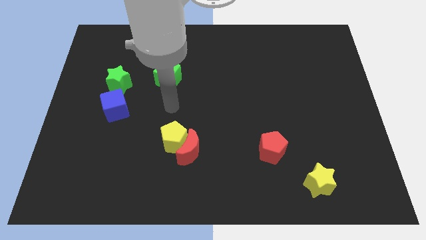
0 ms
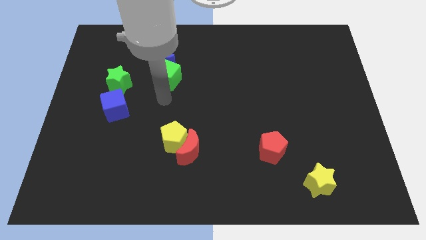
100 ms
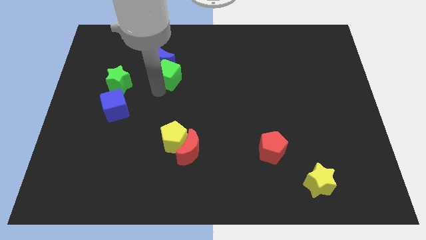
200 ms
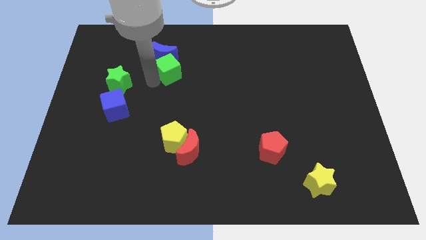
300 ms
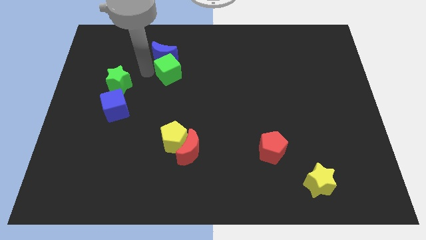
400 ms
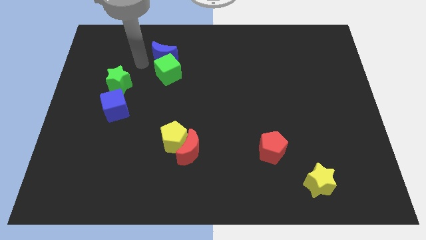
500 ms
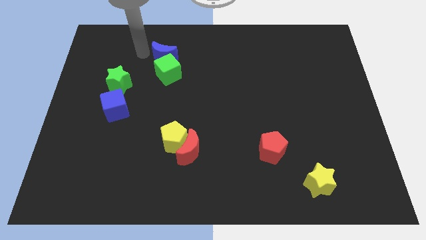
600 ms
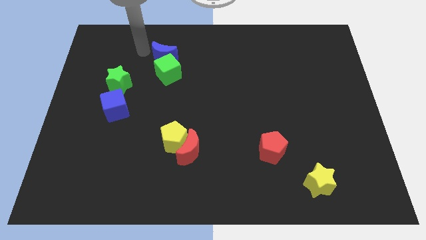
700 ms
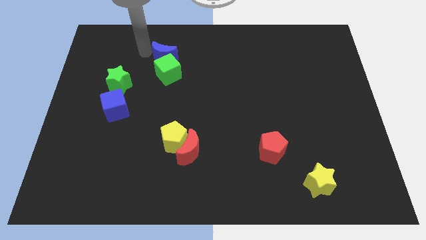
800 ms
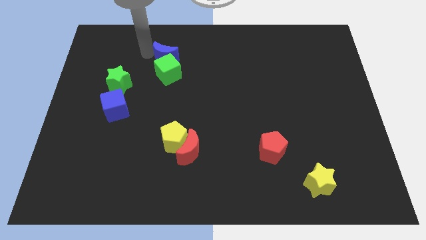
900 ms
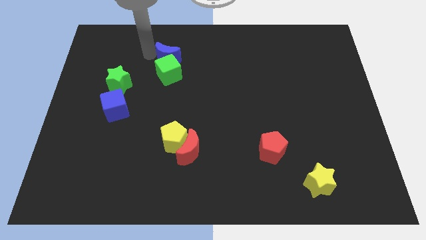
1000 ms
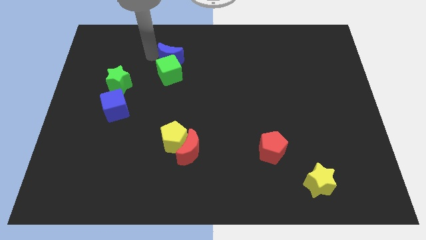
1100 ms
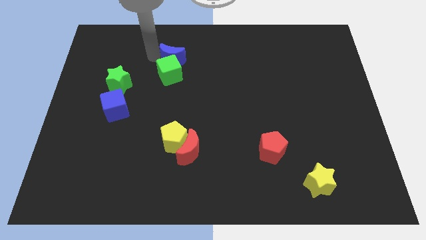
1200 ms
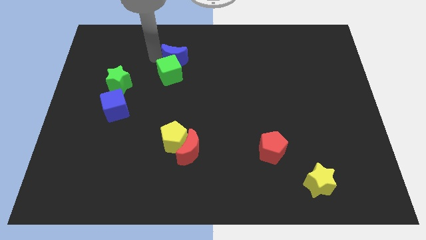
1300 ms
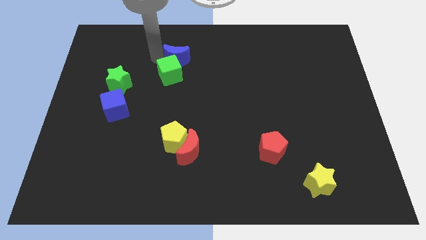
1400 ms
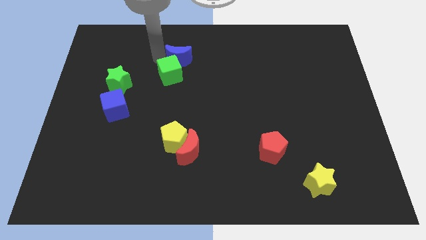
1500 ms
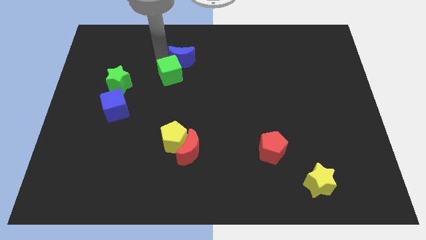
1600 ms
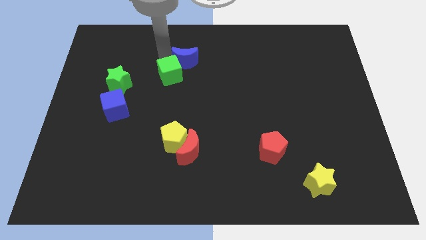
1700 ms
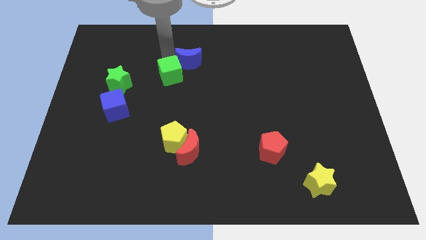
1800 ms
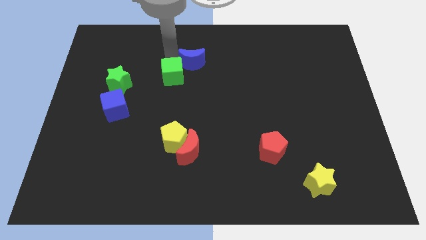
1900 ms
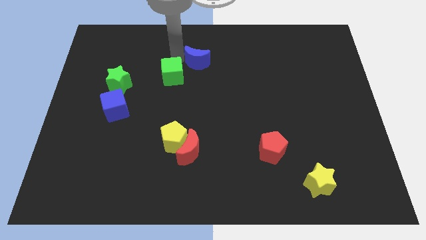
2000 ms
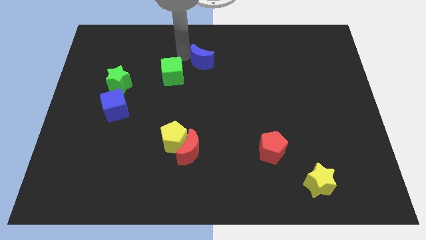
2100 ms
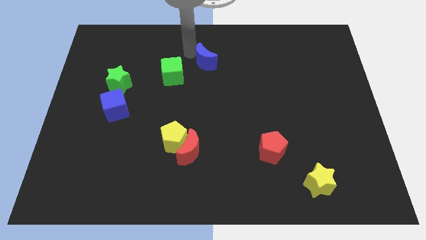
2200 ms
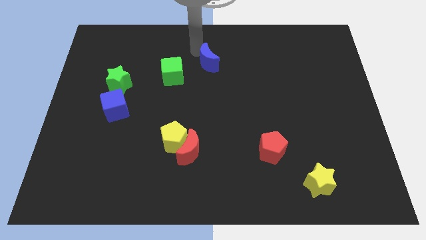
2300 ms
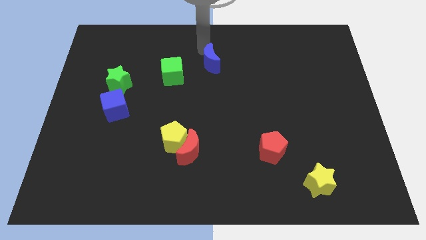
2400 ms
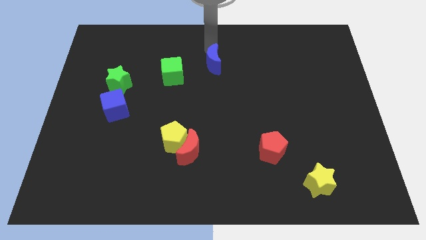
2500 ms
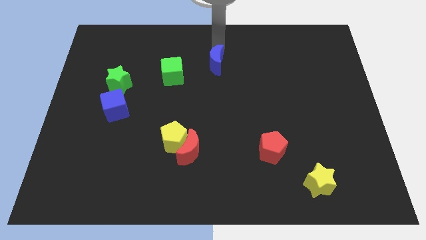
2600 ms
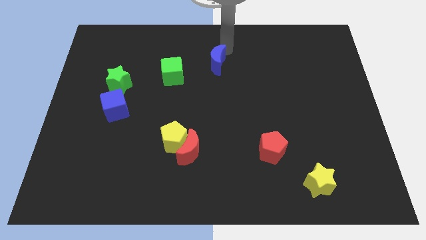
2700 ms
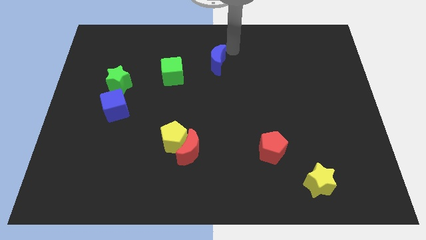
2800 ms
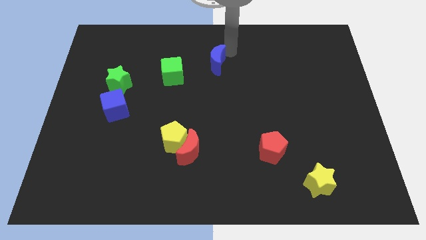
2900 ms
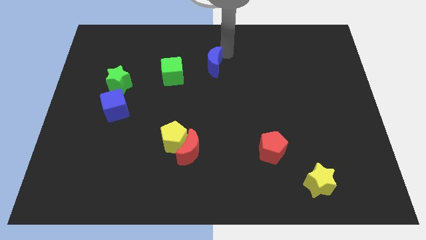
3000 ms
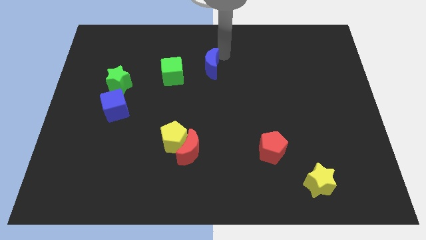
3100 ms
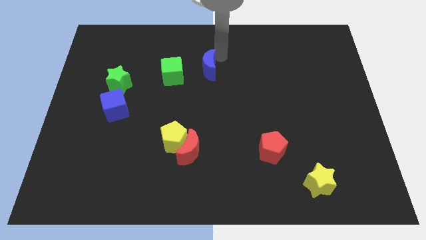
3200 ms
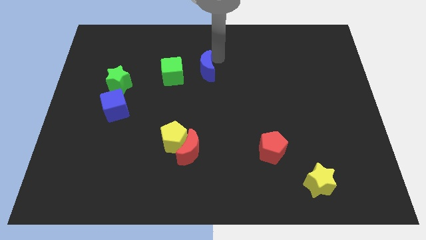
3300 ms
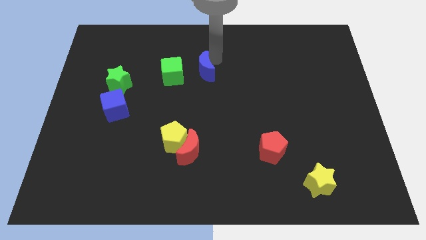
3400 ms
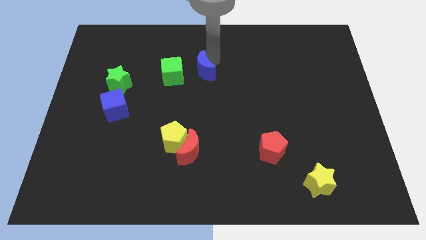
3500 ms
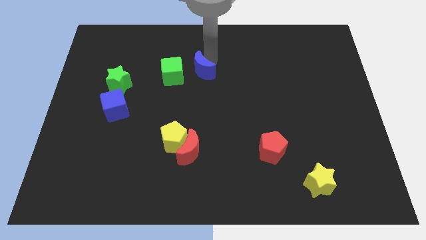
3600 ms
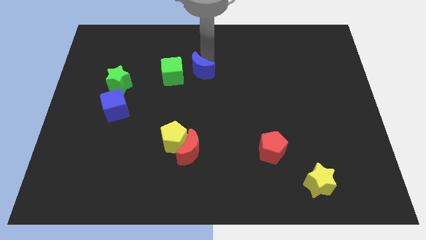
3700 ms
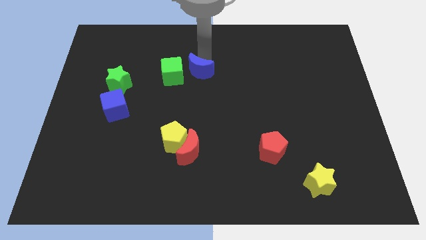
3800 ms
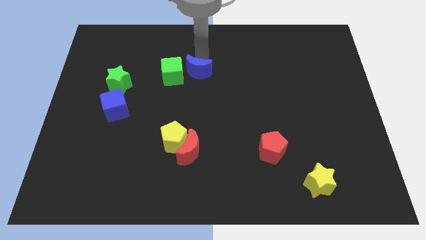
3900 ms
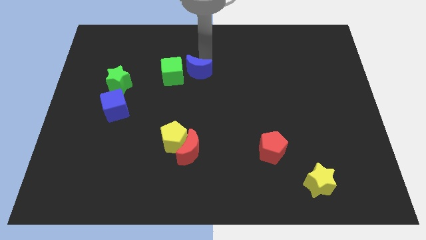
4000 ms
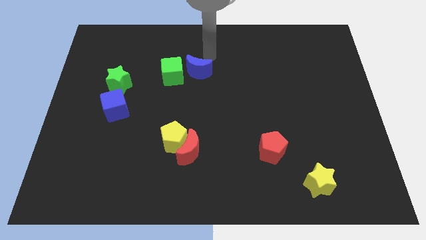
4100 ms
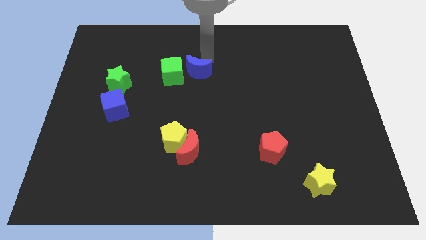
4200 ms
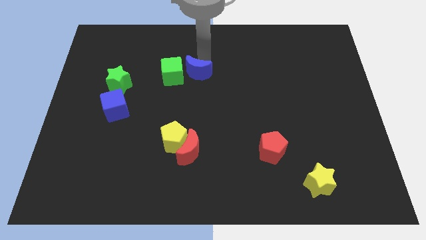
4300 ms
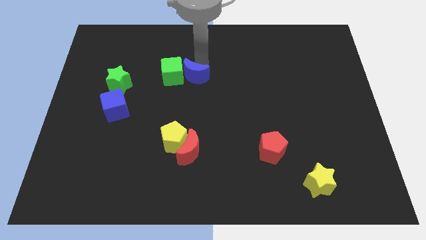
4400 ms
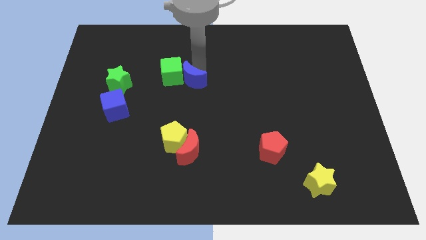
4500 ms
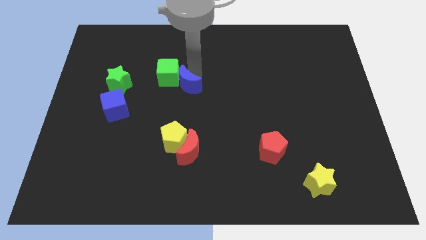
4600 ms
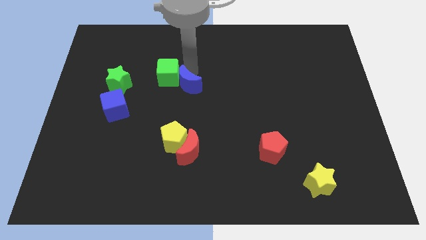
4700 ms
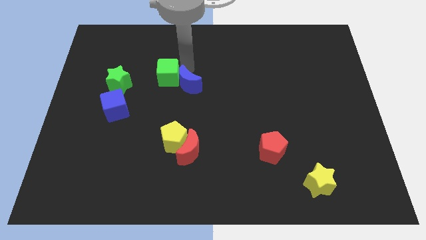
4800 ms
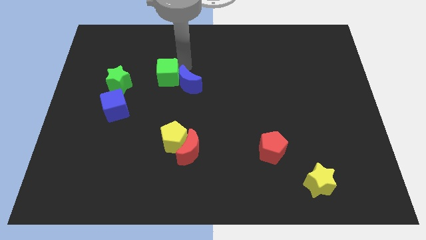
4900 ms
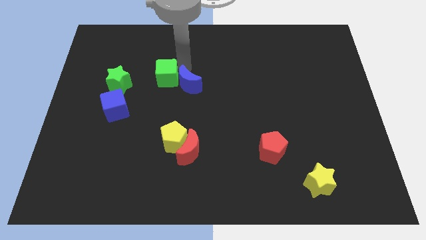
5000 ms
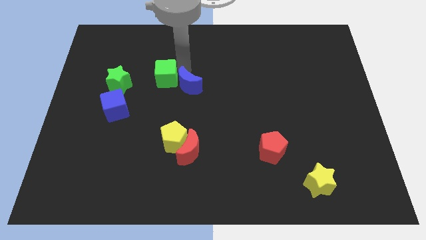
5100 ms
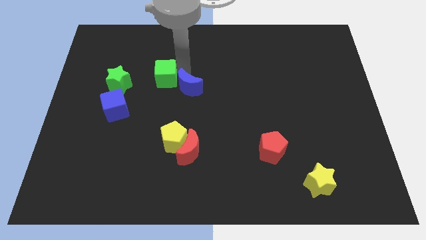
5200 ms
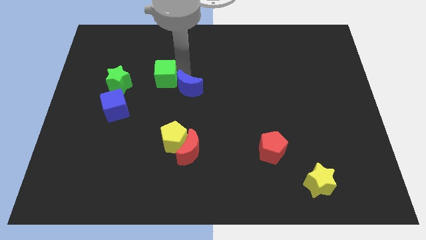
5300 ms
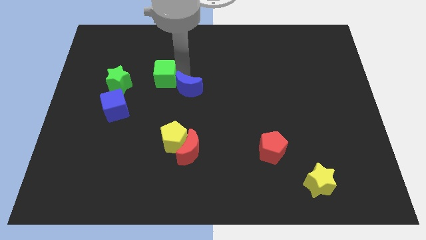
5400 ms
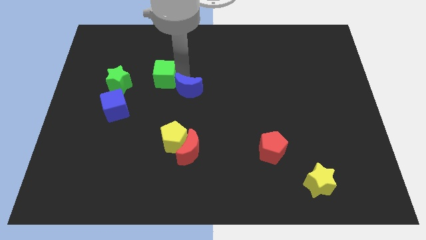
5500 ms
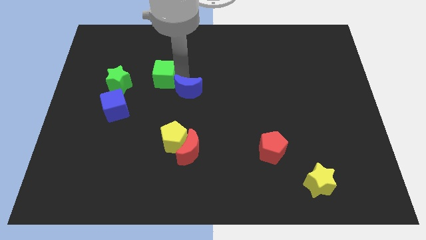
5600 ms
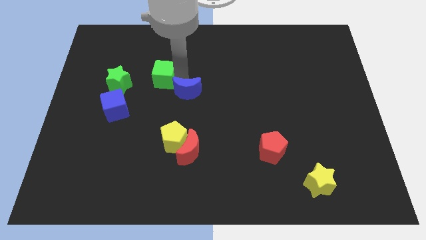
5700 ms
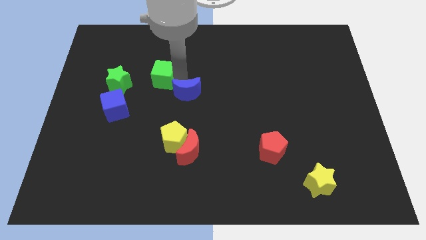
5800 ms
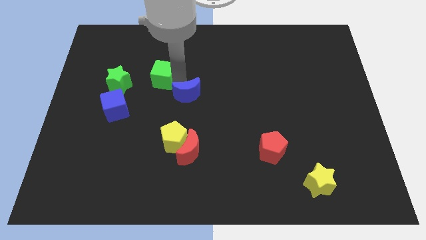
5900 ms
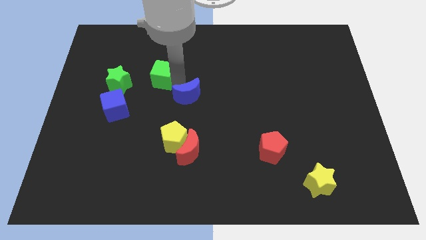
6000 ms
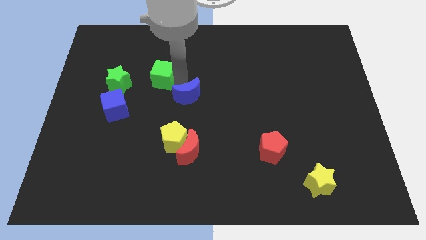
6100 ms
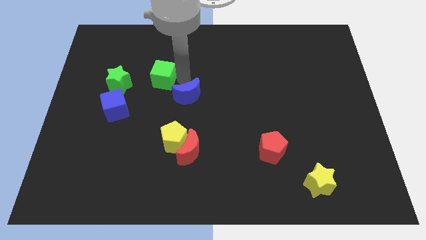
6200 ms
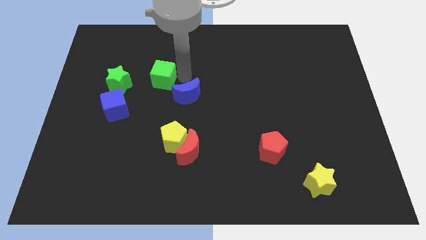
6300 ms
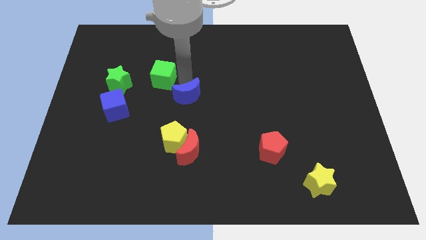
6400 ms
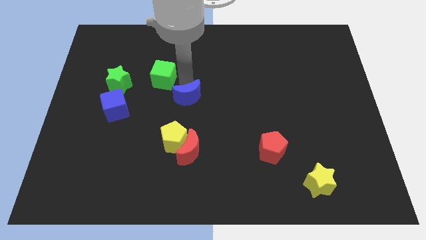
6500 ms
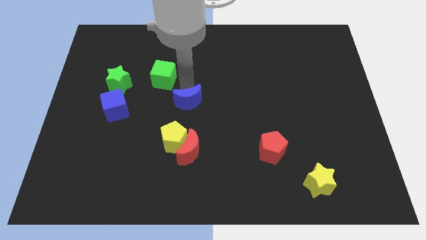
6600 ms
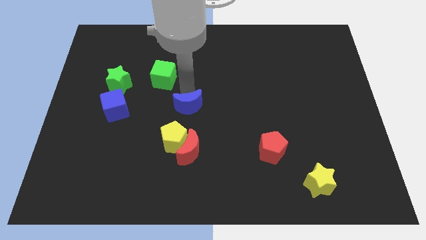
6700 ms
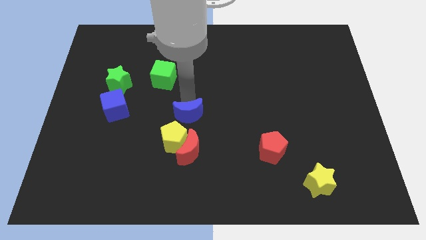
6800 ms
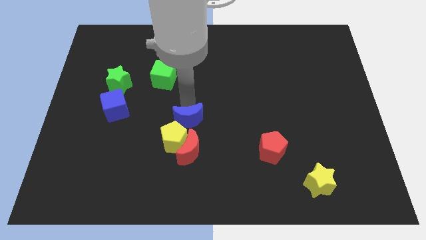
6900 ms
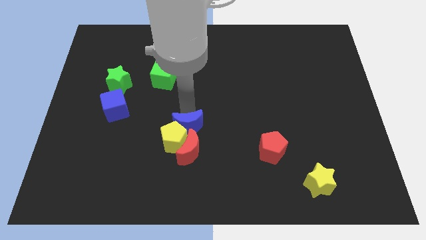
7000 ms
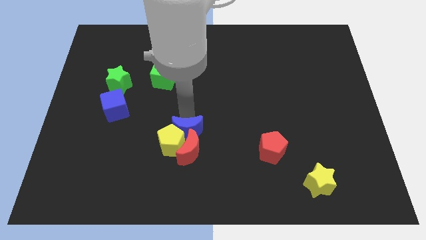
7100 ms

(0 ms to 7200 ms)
push the blue moon close to the red moon
